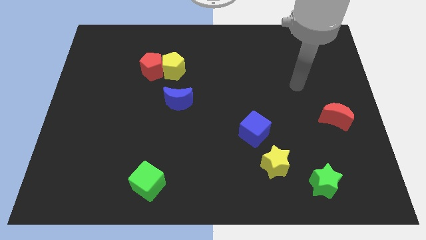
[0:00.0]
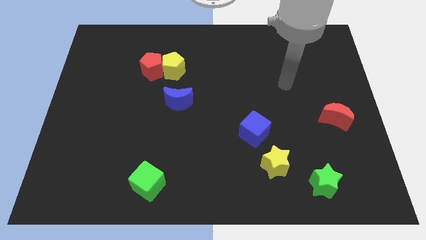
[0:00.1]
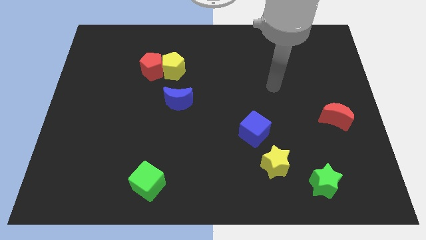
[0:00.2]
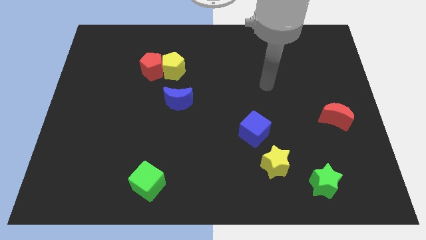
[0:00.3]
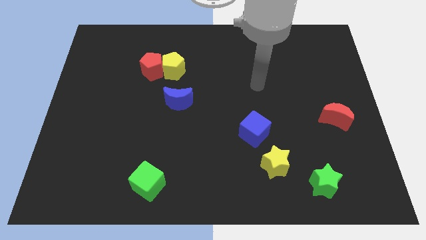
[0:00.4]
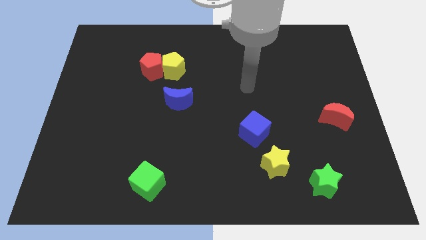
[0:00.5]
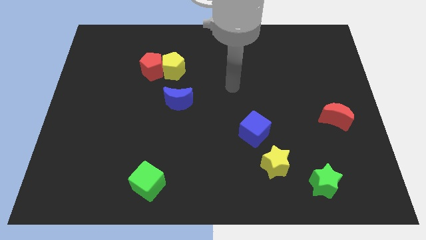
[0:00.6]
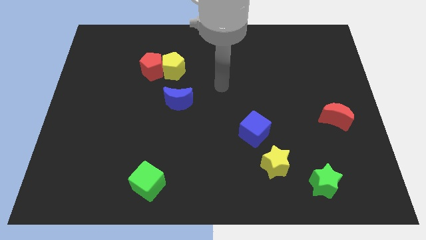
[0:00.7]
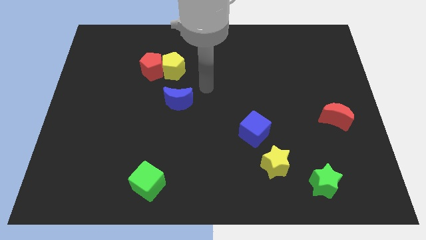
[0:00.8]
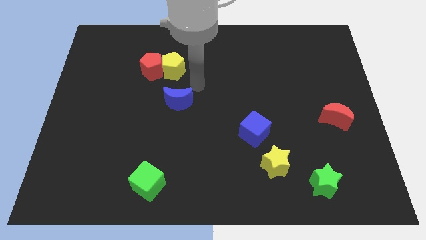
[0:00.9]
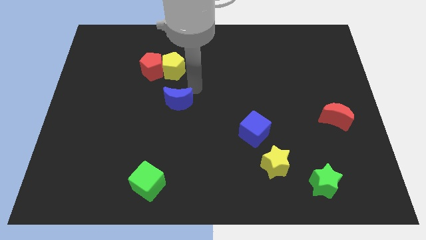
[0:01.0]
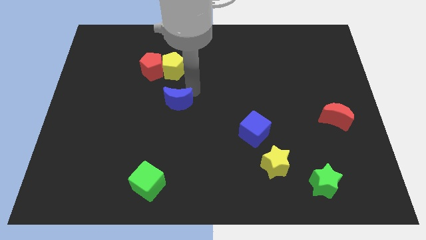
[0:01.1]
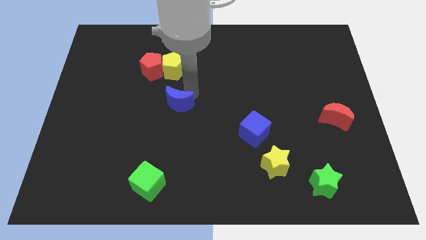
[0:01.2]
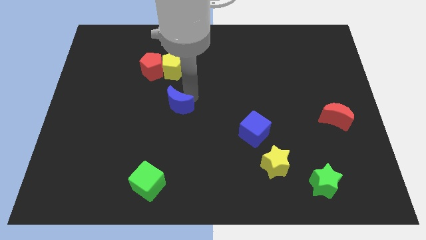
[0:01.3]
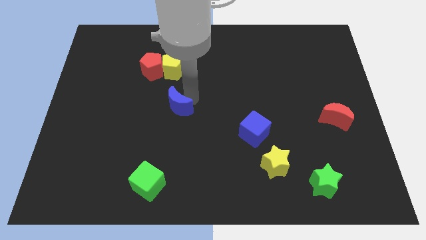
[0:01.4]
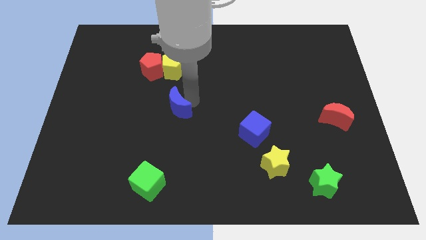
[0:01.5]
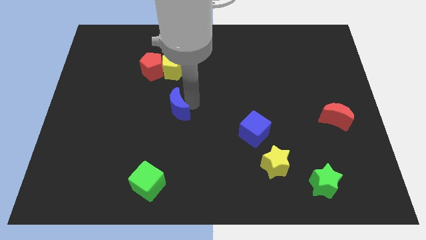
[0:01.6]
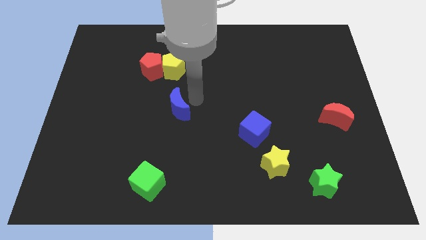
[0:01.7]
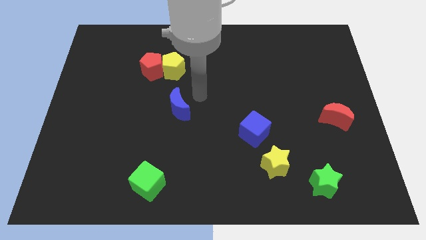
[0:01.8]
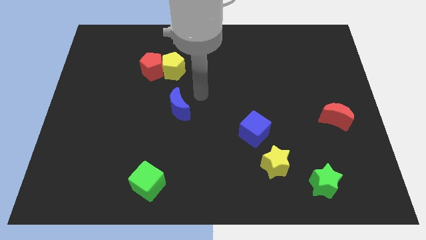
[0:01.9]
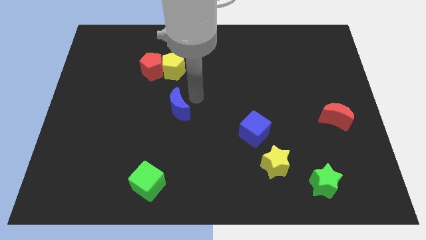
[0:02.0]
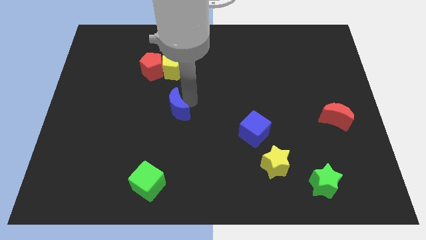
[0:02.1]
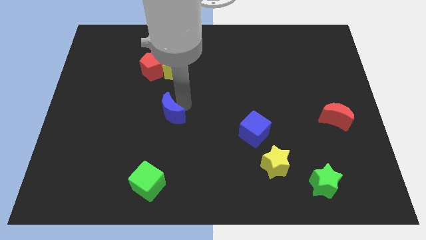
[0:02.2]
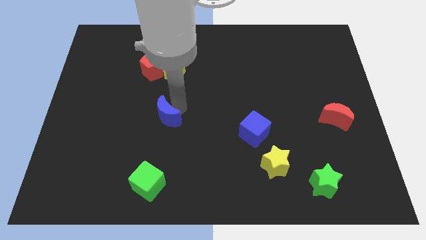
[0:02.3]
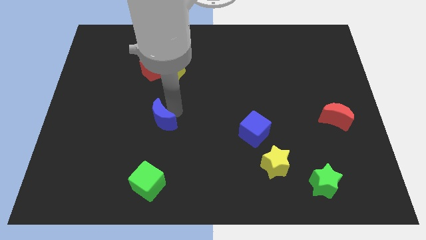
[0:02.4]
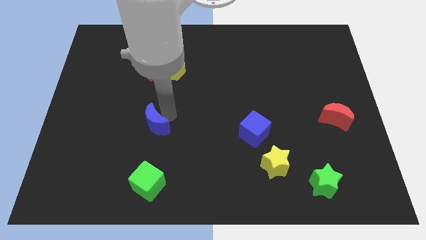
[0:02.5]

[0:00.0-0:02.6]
push the blue moon a little down and left

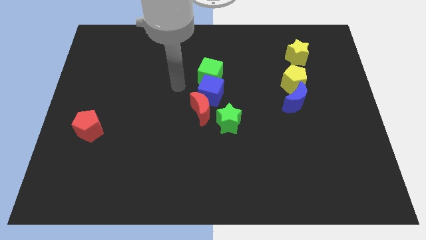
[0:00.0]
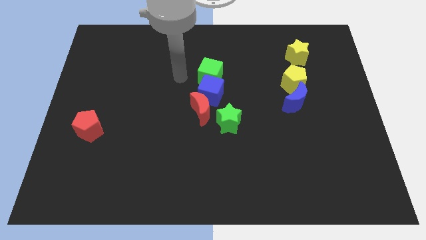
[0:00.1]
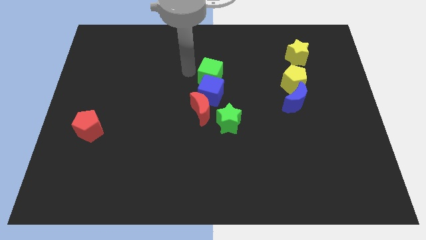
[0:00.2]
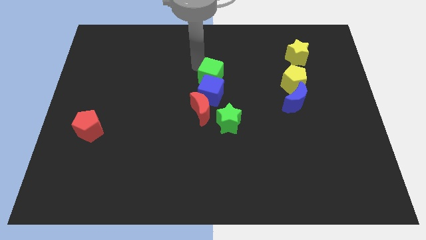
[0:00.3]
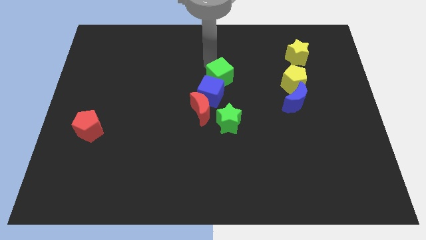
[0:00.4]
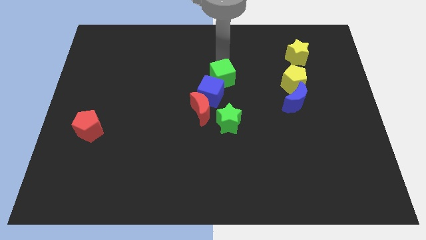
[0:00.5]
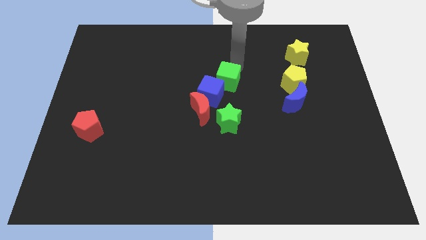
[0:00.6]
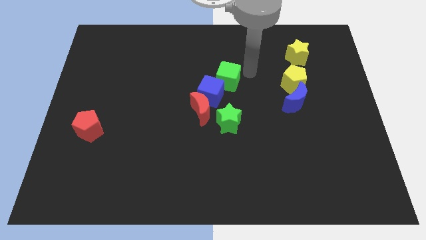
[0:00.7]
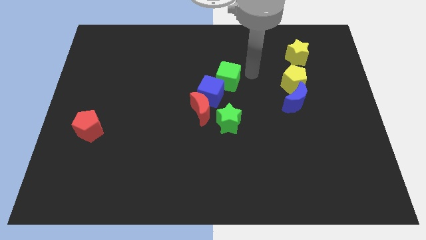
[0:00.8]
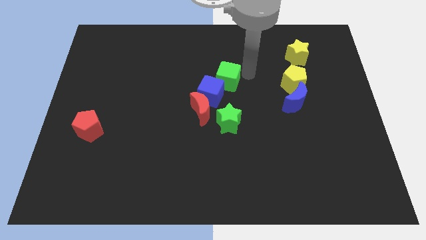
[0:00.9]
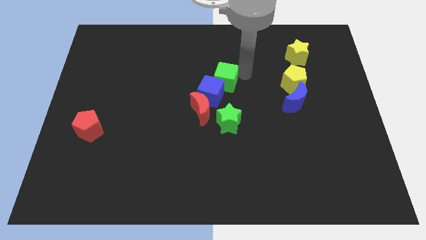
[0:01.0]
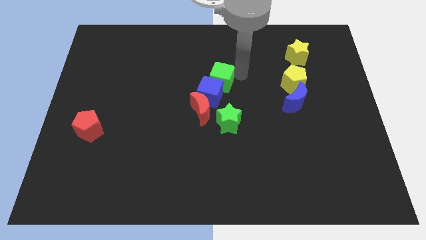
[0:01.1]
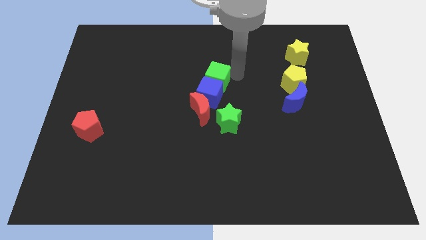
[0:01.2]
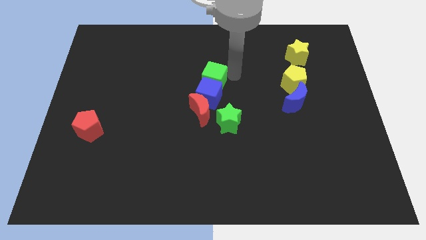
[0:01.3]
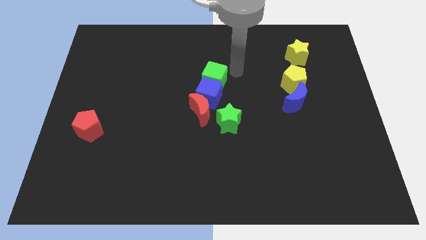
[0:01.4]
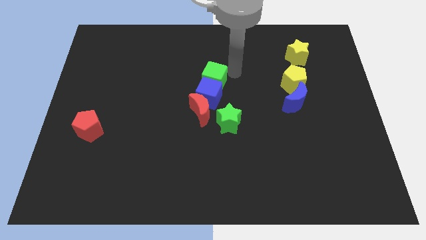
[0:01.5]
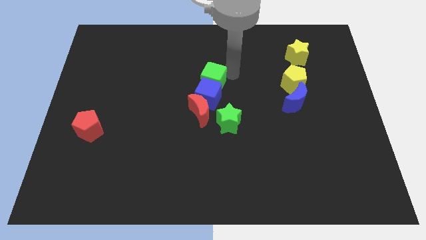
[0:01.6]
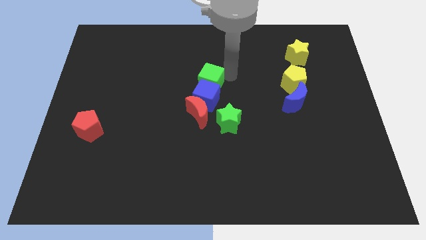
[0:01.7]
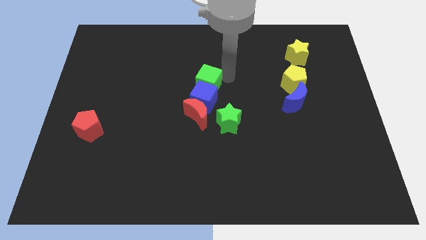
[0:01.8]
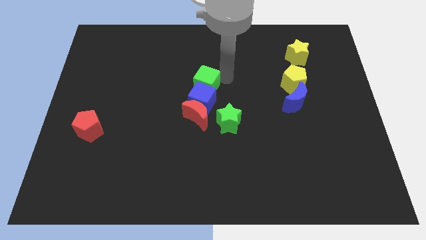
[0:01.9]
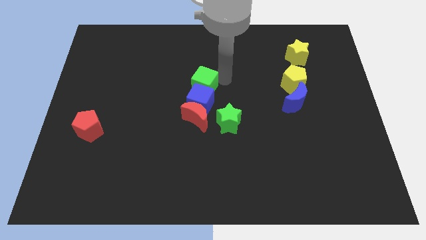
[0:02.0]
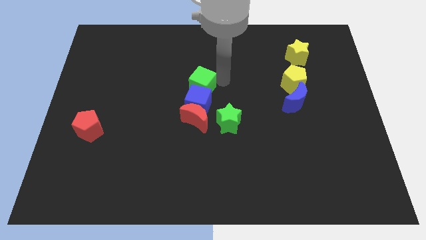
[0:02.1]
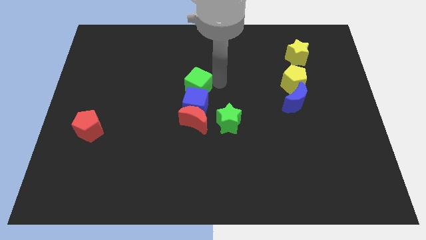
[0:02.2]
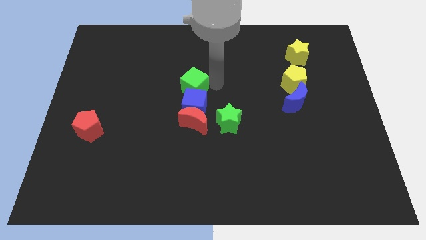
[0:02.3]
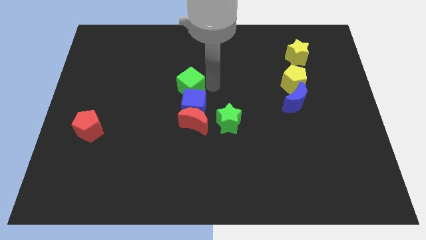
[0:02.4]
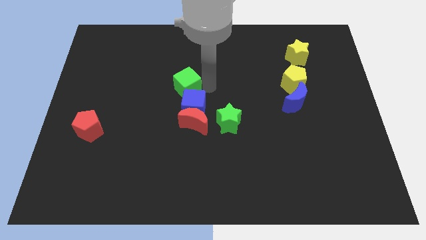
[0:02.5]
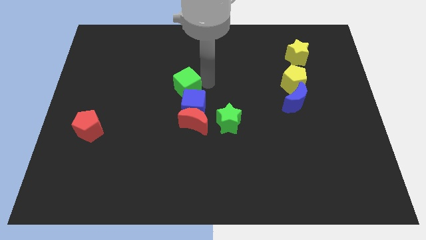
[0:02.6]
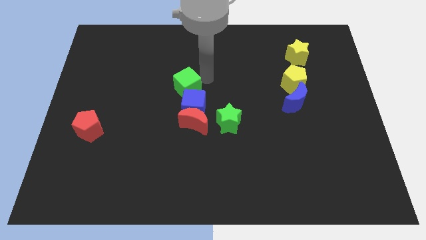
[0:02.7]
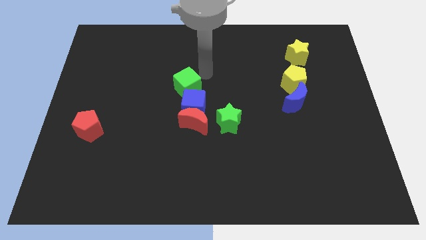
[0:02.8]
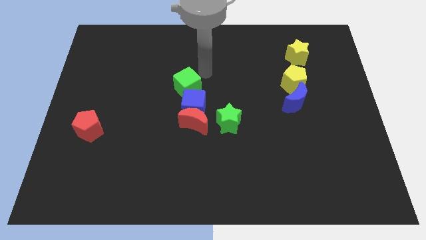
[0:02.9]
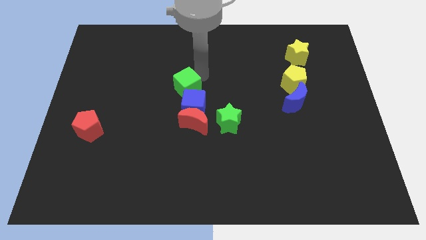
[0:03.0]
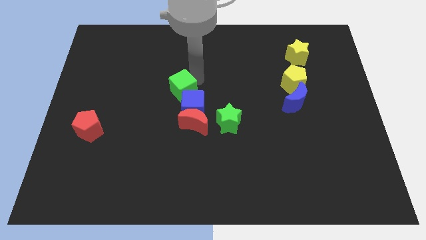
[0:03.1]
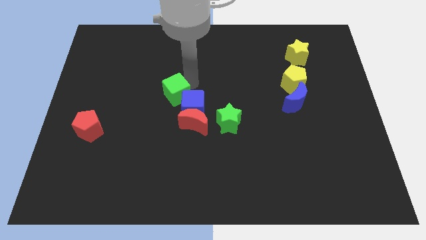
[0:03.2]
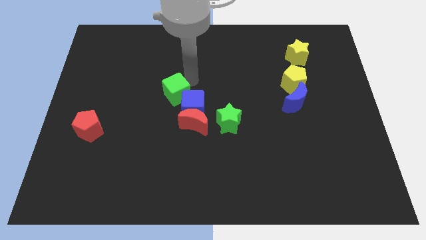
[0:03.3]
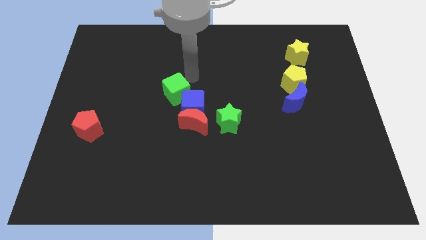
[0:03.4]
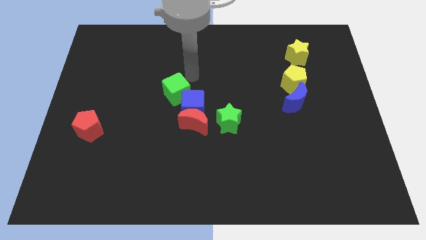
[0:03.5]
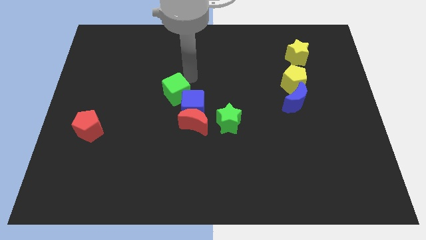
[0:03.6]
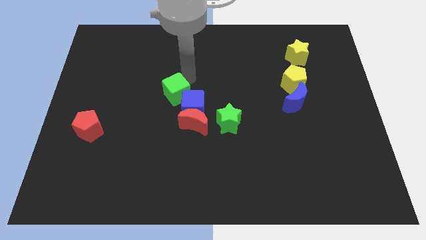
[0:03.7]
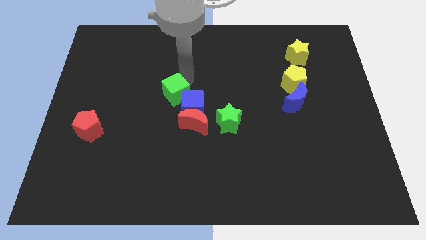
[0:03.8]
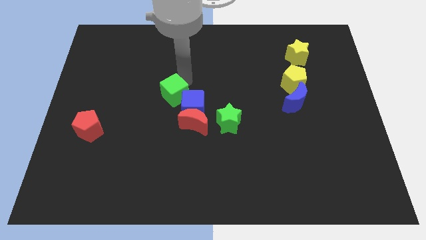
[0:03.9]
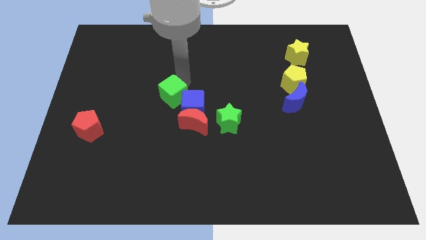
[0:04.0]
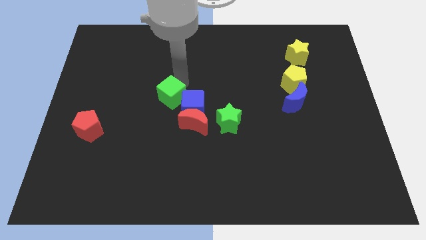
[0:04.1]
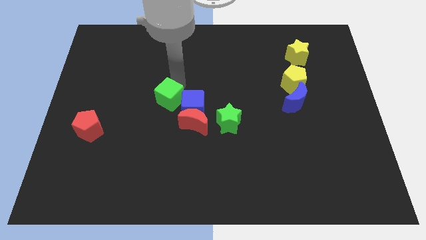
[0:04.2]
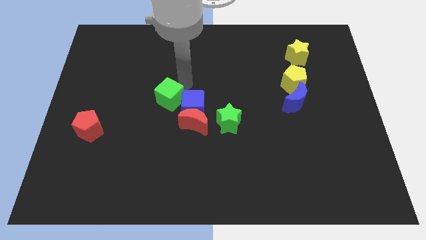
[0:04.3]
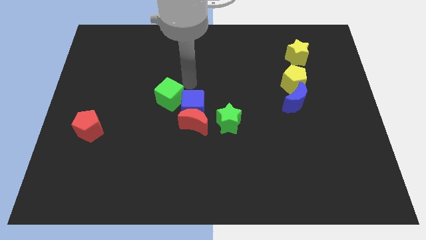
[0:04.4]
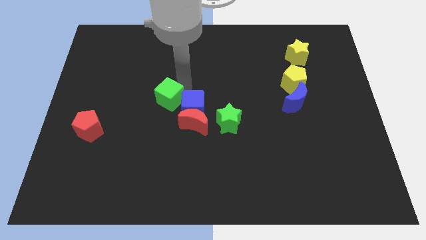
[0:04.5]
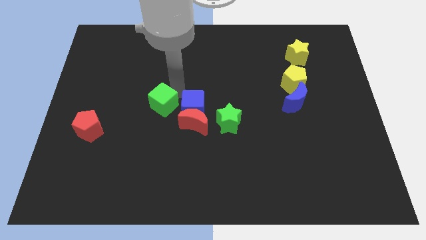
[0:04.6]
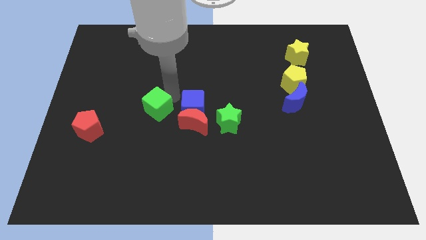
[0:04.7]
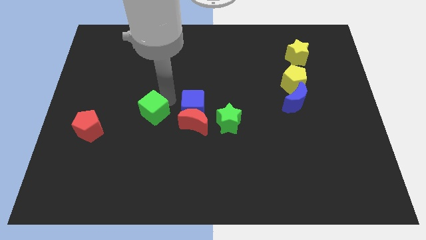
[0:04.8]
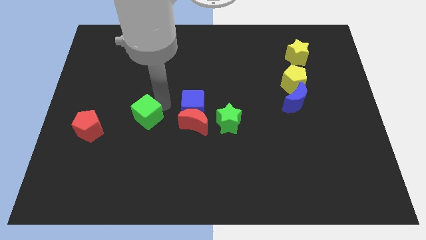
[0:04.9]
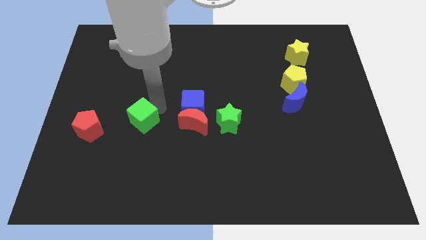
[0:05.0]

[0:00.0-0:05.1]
slide the green cube downwards and to the left

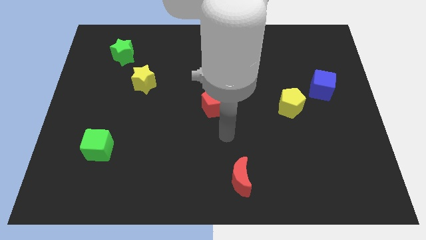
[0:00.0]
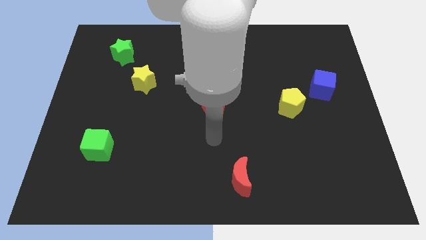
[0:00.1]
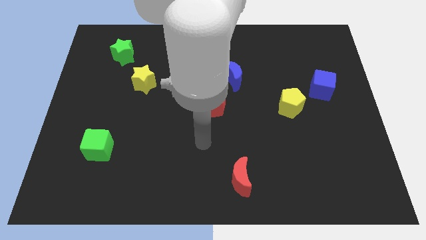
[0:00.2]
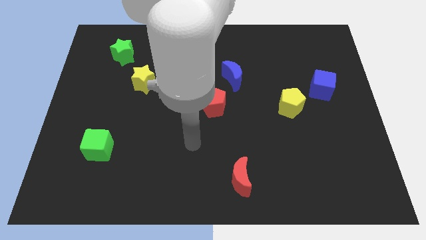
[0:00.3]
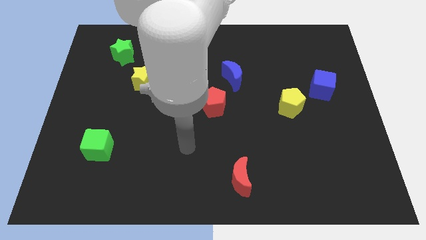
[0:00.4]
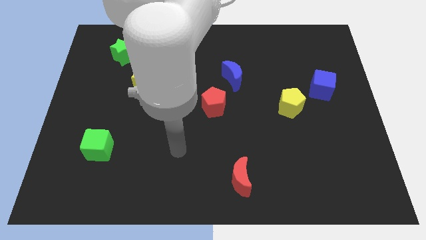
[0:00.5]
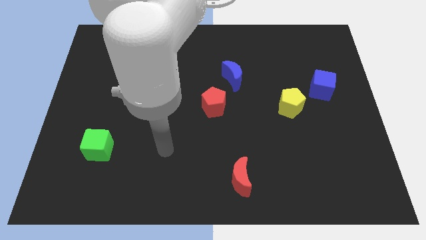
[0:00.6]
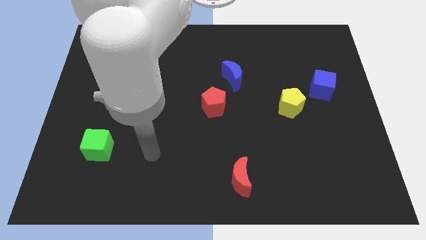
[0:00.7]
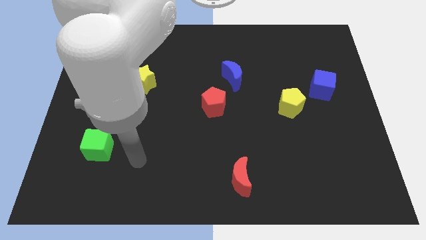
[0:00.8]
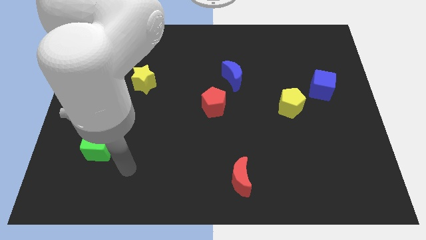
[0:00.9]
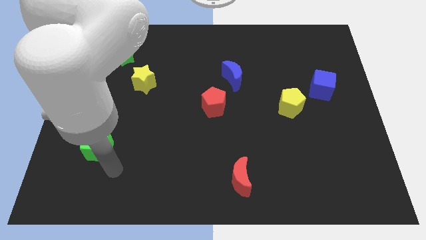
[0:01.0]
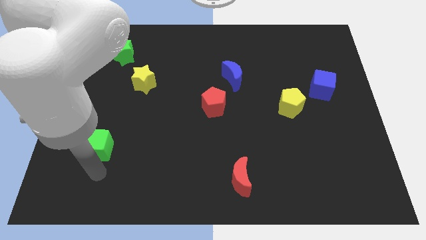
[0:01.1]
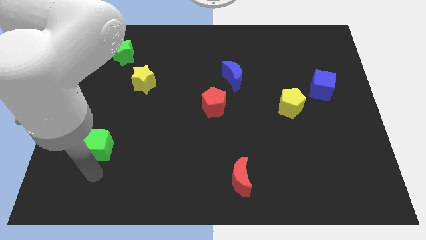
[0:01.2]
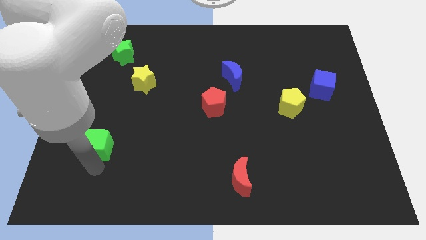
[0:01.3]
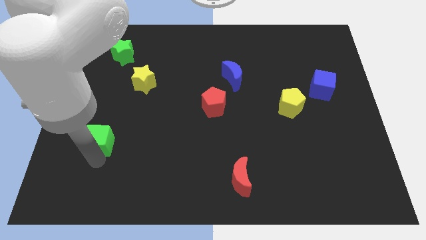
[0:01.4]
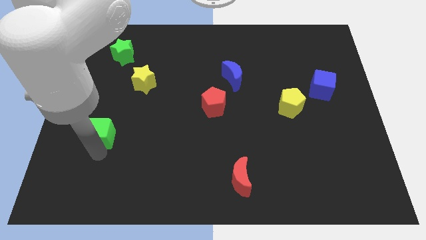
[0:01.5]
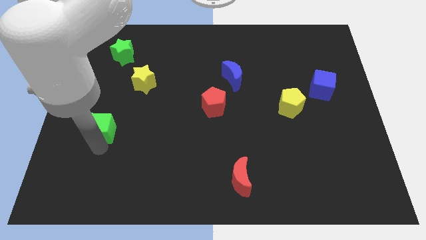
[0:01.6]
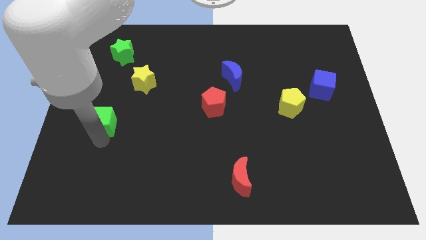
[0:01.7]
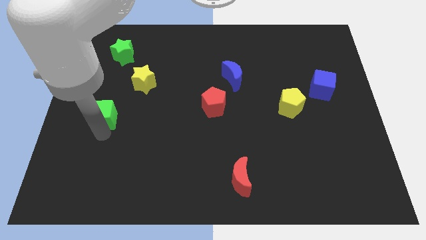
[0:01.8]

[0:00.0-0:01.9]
slide the green cube up a little bit
